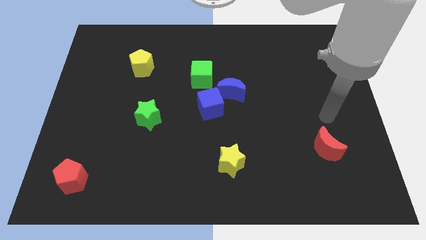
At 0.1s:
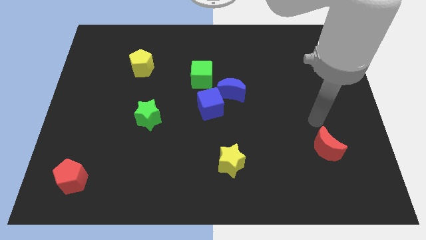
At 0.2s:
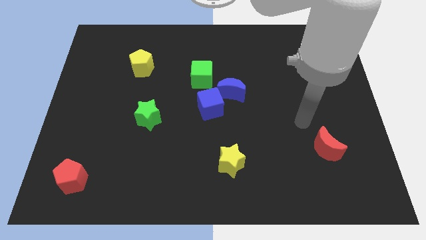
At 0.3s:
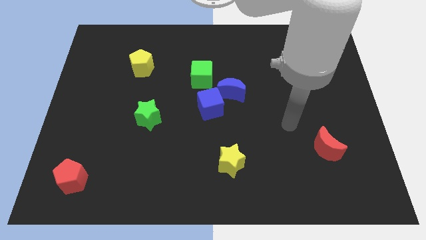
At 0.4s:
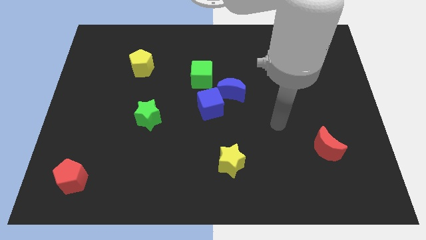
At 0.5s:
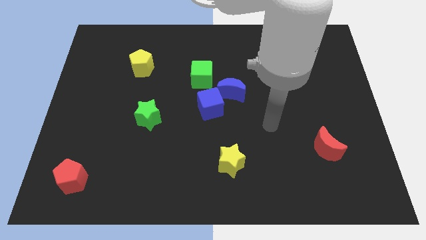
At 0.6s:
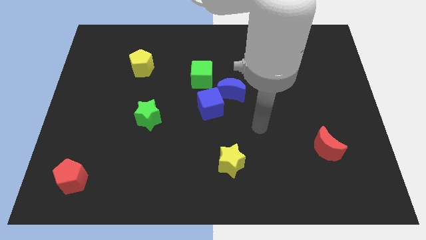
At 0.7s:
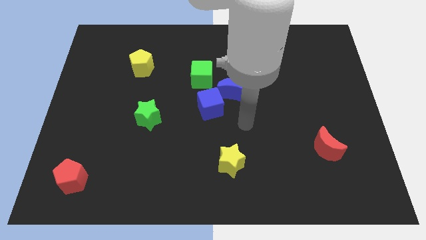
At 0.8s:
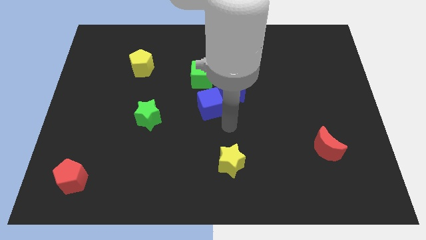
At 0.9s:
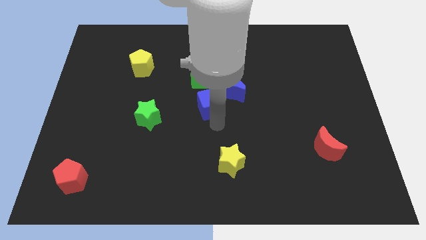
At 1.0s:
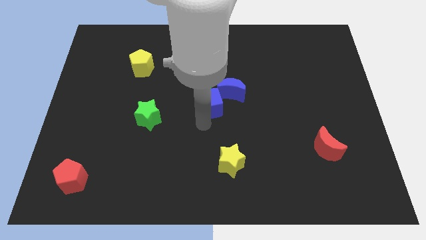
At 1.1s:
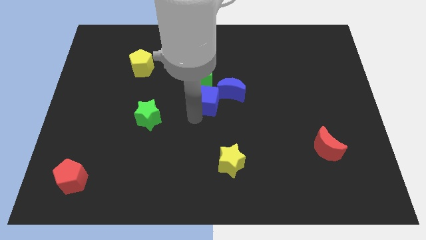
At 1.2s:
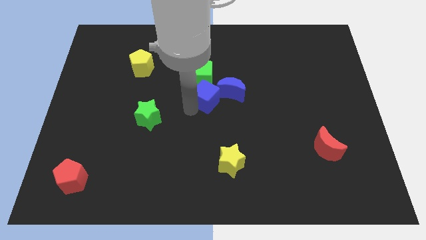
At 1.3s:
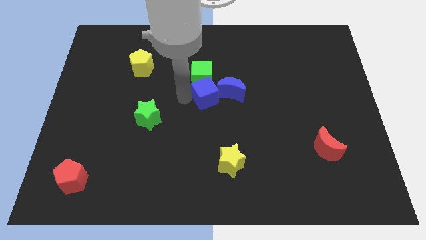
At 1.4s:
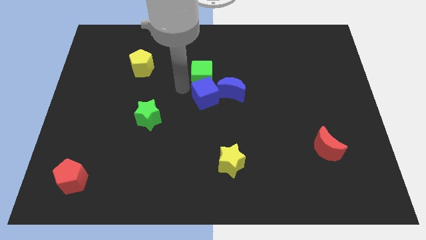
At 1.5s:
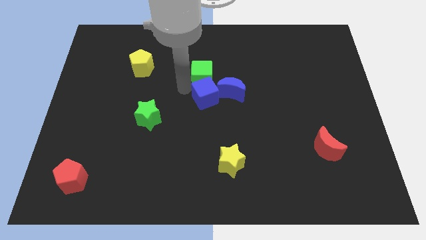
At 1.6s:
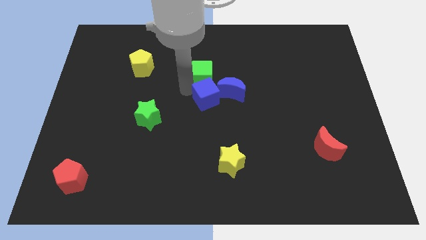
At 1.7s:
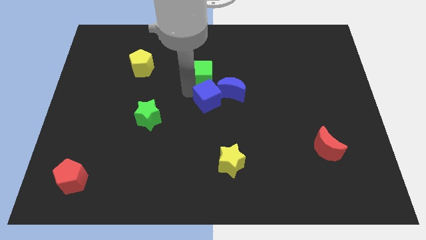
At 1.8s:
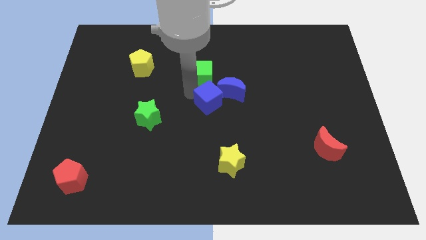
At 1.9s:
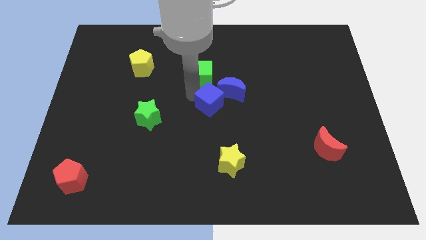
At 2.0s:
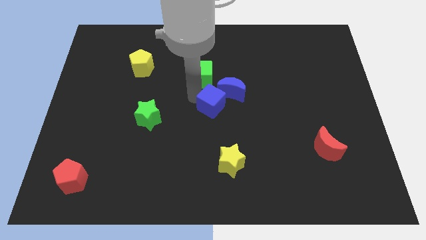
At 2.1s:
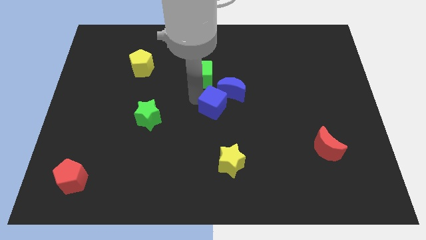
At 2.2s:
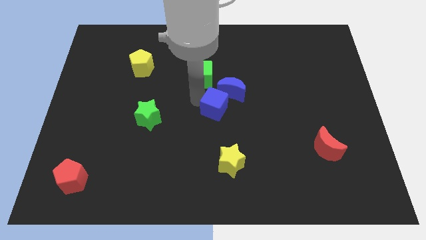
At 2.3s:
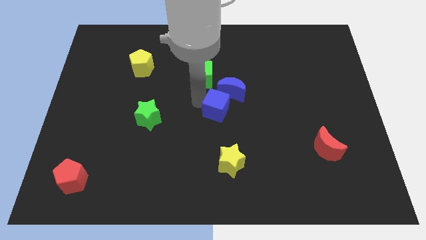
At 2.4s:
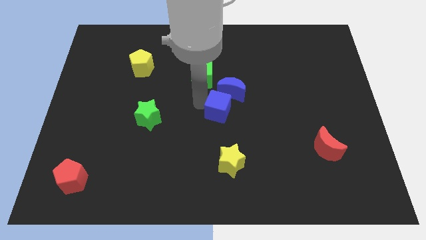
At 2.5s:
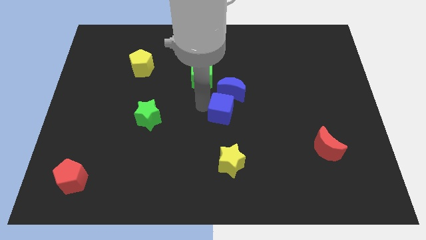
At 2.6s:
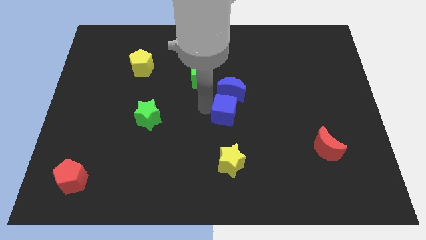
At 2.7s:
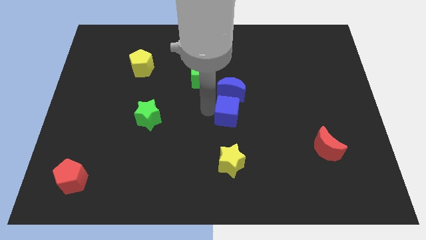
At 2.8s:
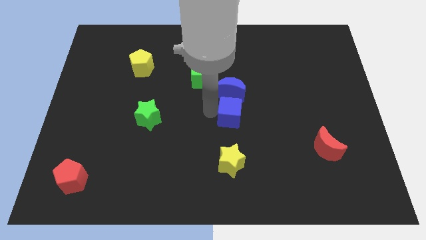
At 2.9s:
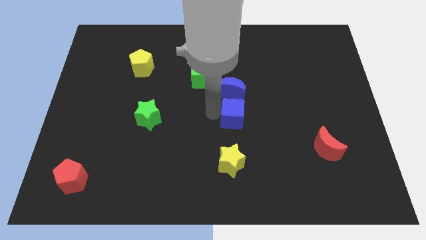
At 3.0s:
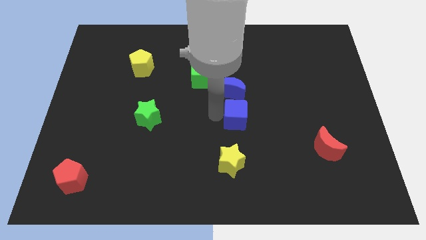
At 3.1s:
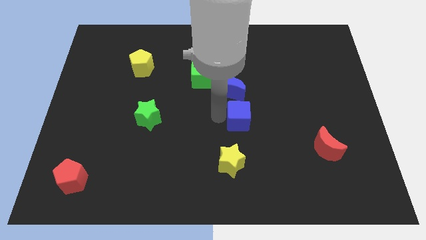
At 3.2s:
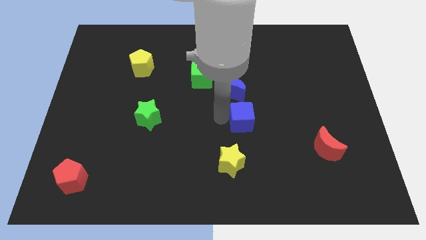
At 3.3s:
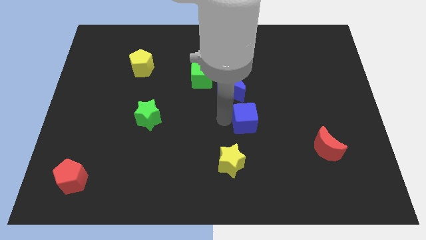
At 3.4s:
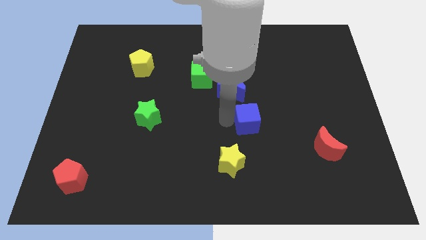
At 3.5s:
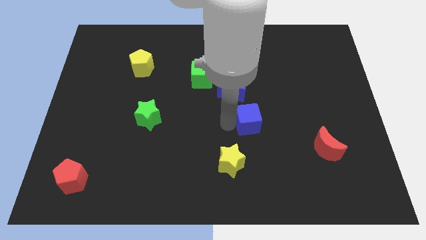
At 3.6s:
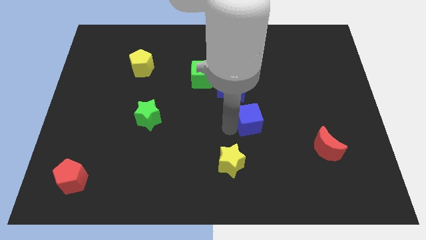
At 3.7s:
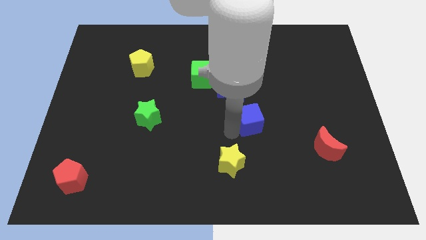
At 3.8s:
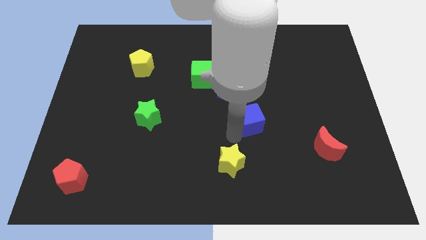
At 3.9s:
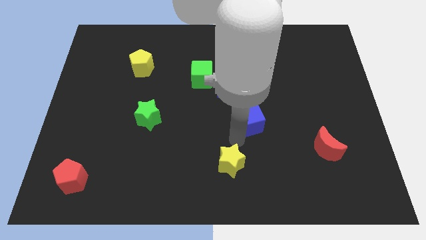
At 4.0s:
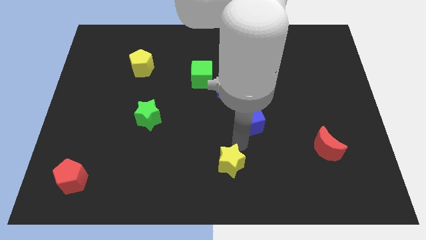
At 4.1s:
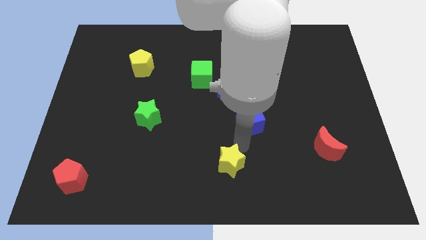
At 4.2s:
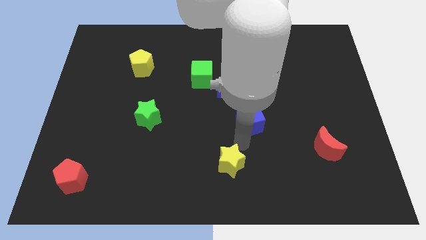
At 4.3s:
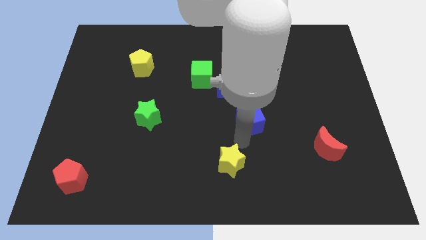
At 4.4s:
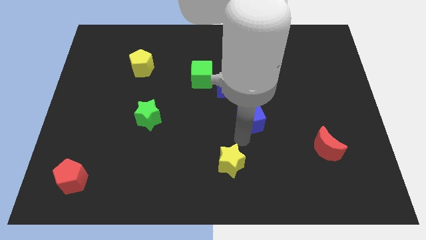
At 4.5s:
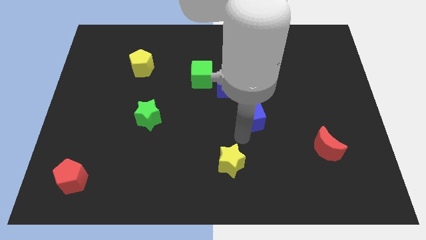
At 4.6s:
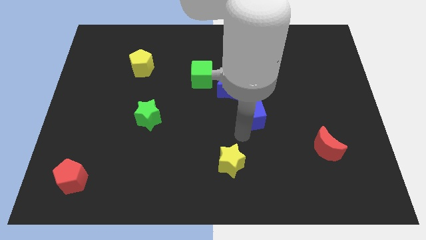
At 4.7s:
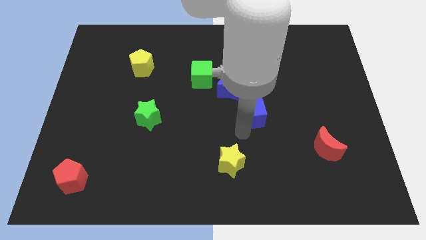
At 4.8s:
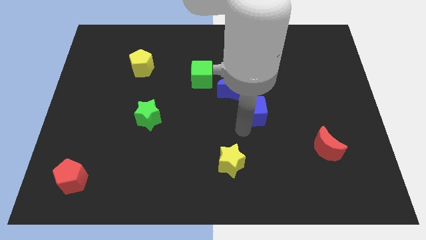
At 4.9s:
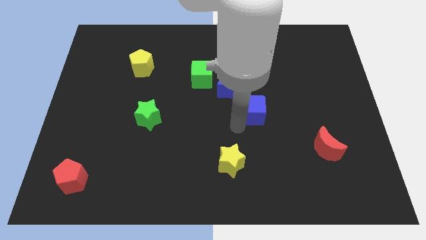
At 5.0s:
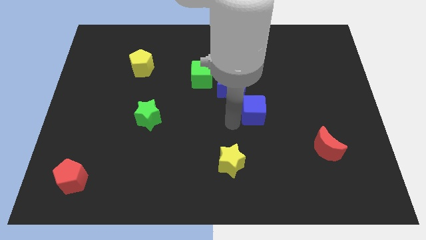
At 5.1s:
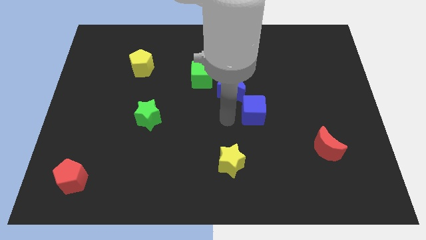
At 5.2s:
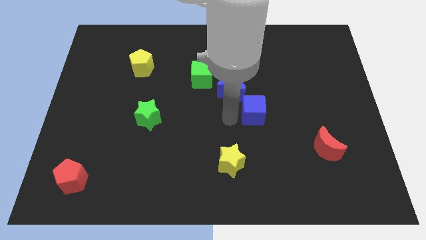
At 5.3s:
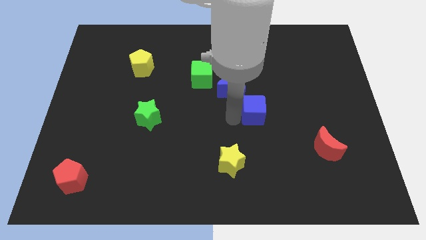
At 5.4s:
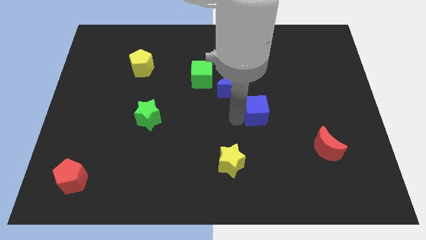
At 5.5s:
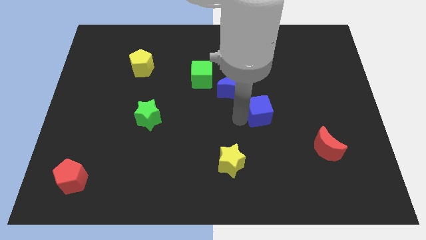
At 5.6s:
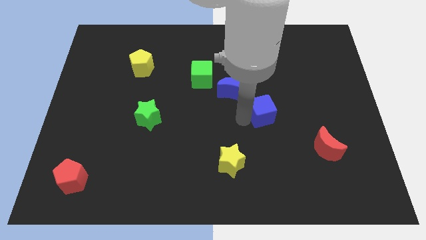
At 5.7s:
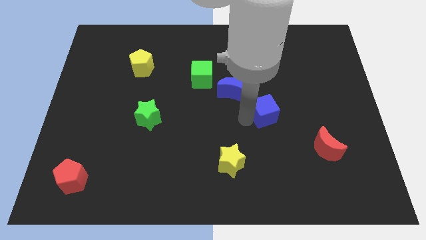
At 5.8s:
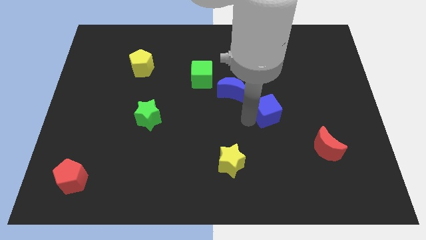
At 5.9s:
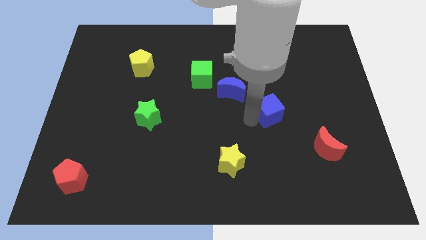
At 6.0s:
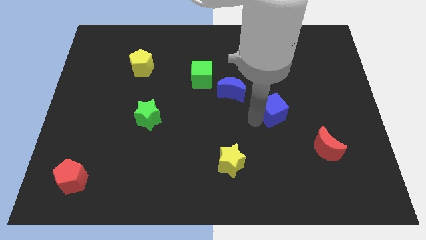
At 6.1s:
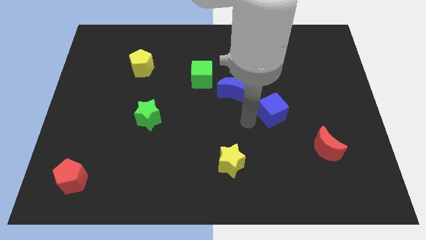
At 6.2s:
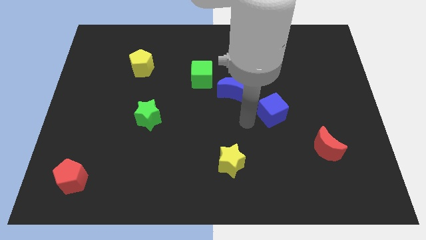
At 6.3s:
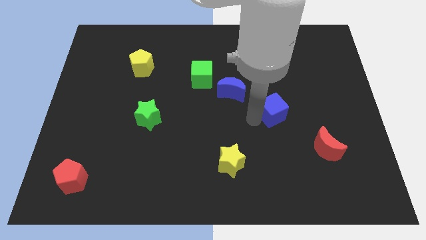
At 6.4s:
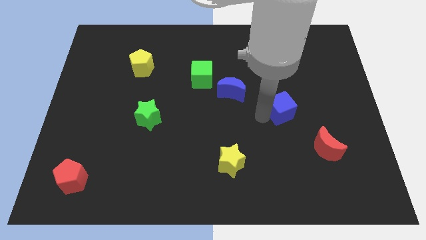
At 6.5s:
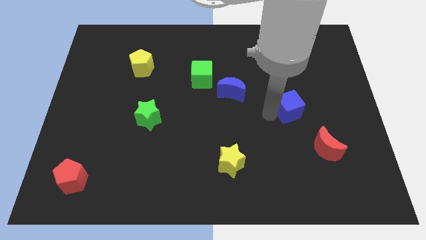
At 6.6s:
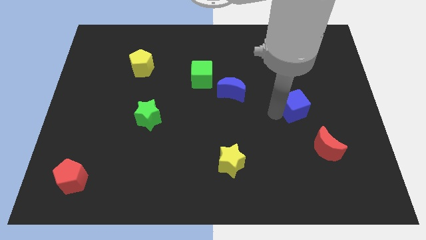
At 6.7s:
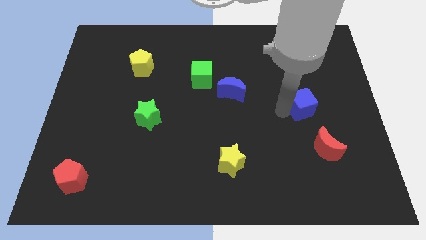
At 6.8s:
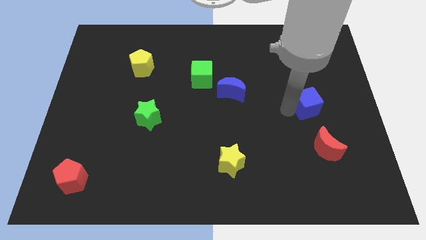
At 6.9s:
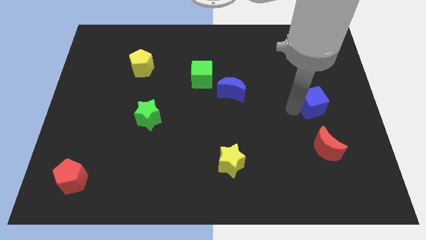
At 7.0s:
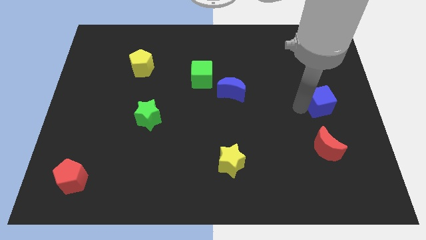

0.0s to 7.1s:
put the blue cube to the right side of the board
